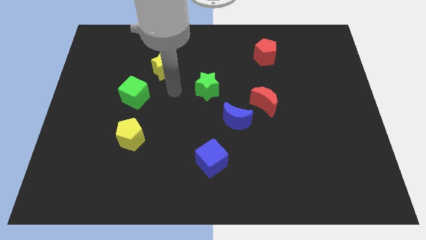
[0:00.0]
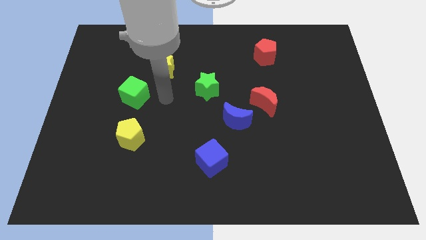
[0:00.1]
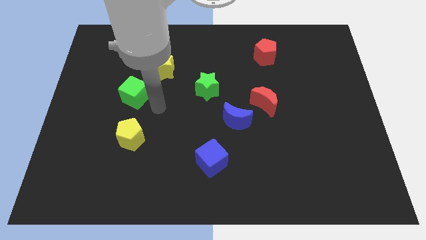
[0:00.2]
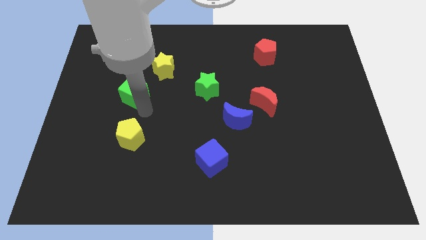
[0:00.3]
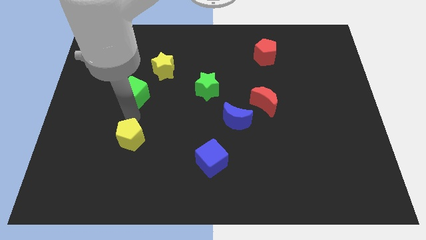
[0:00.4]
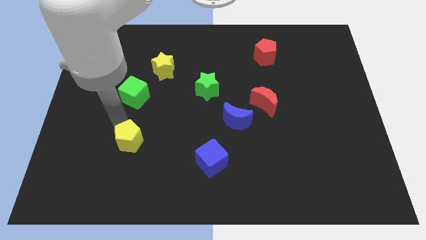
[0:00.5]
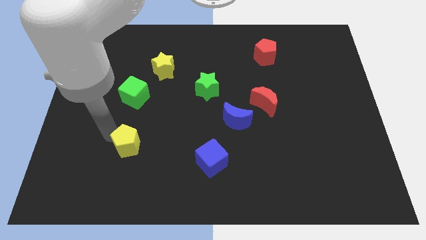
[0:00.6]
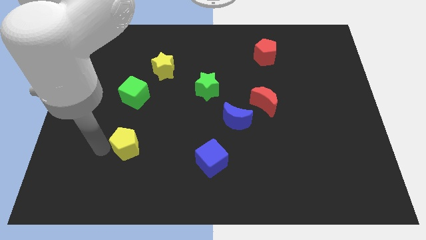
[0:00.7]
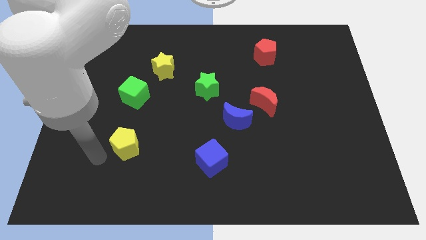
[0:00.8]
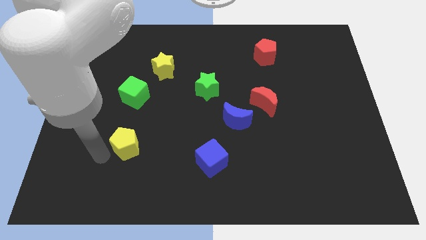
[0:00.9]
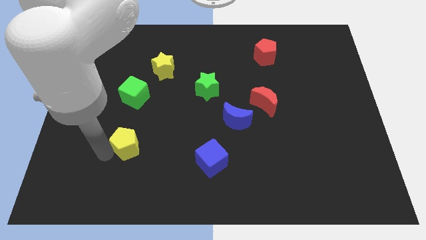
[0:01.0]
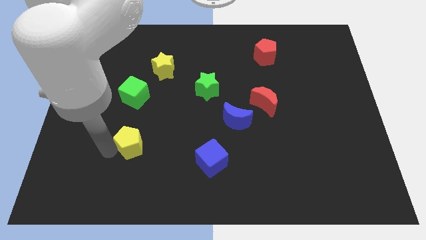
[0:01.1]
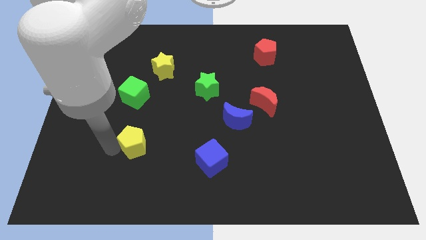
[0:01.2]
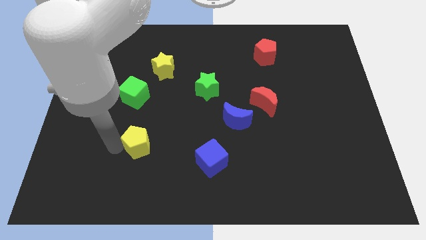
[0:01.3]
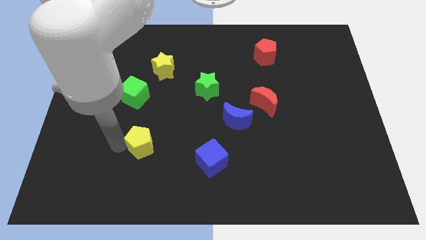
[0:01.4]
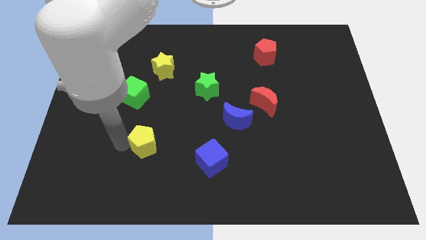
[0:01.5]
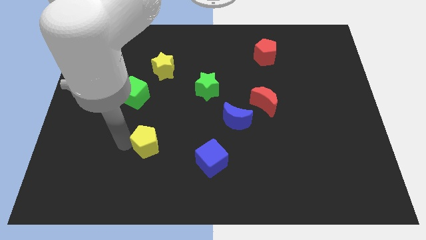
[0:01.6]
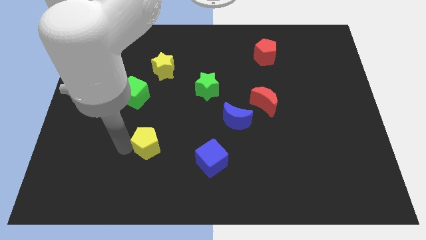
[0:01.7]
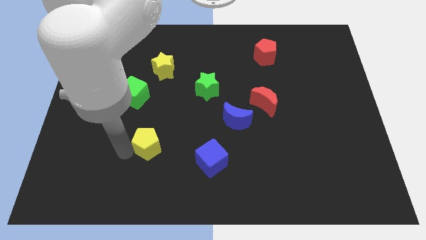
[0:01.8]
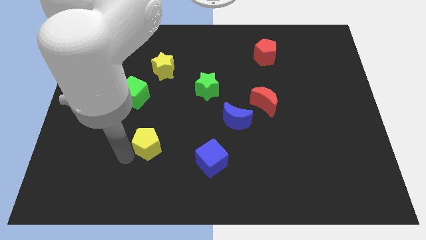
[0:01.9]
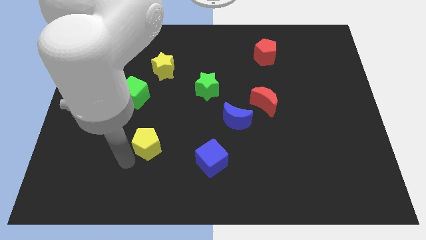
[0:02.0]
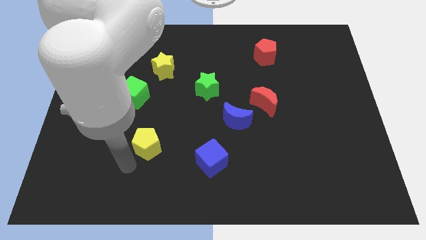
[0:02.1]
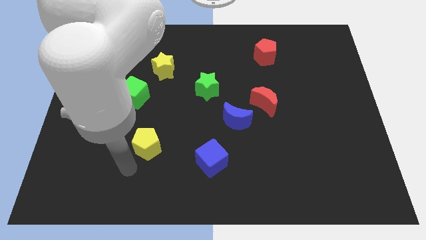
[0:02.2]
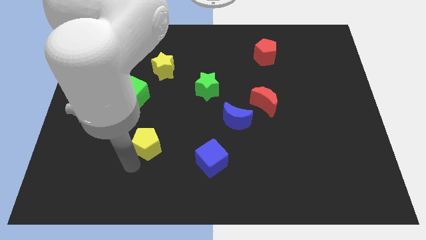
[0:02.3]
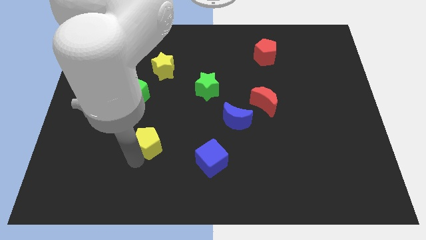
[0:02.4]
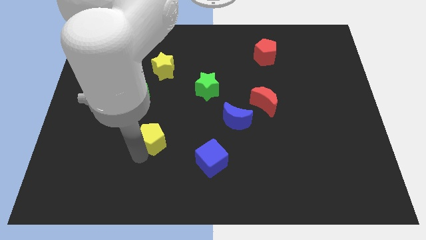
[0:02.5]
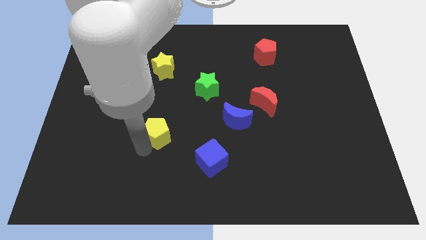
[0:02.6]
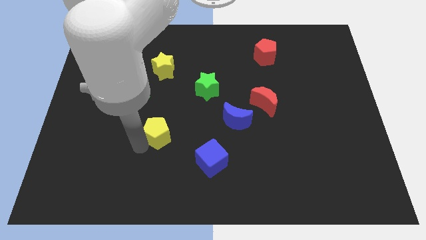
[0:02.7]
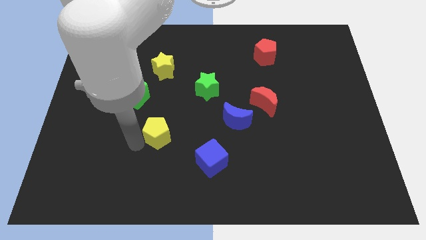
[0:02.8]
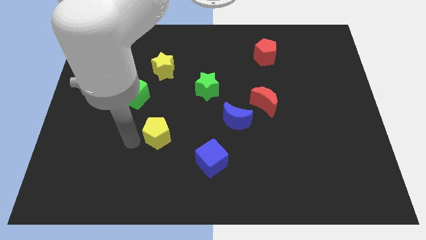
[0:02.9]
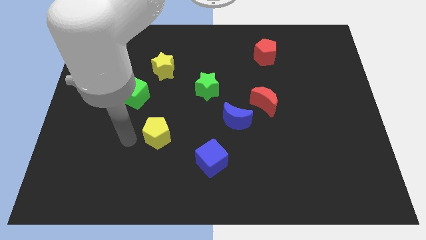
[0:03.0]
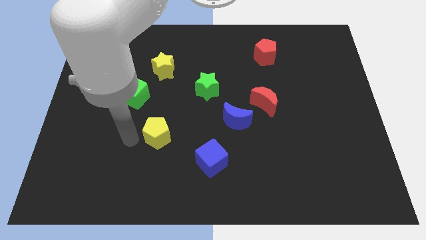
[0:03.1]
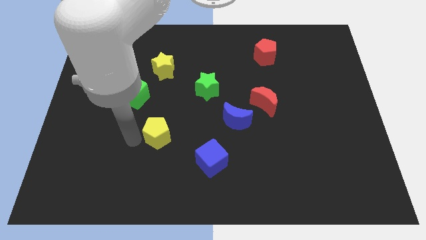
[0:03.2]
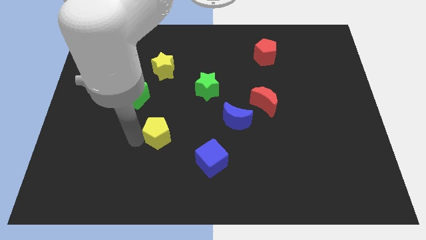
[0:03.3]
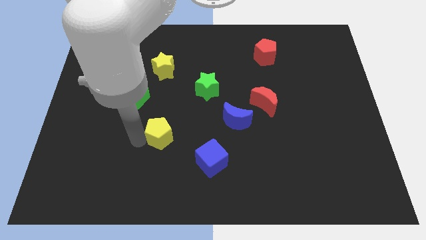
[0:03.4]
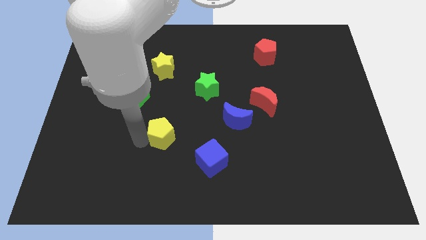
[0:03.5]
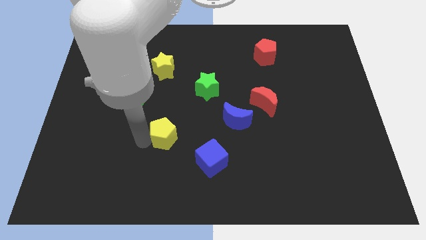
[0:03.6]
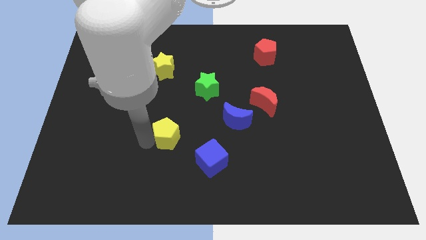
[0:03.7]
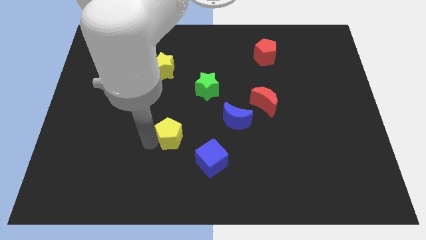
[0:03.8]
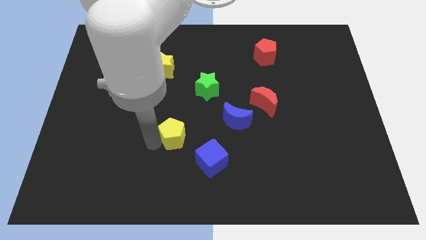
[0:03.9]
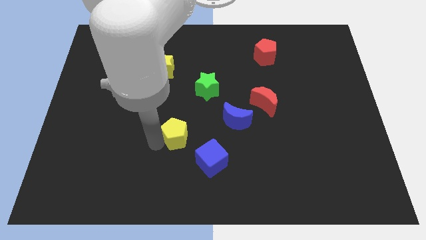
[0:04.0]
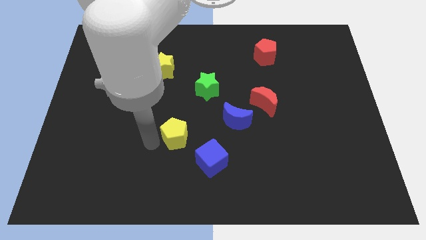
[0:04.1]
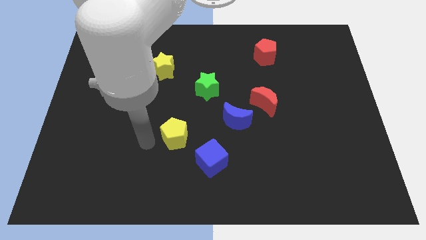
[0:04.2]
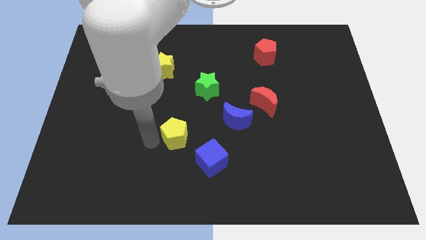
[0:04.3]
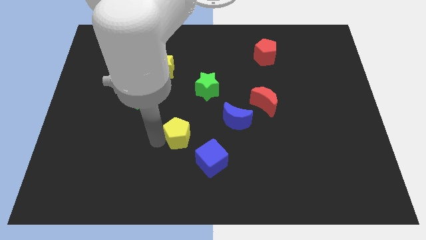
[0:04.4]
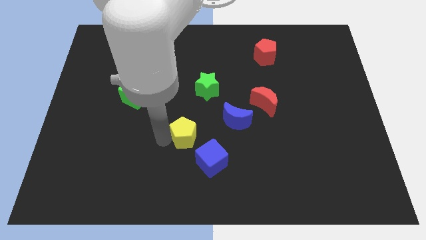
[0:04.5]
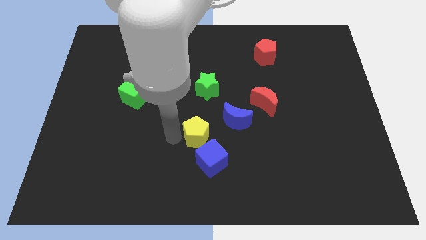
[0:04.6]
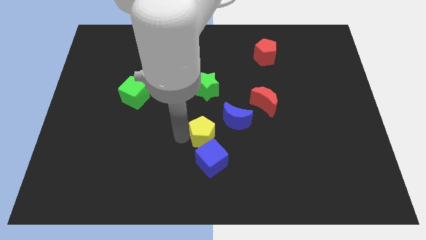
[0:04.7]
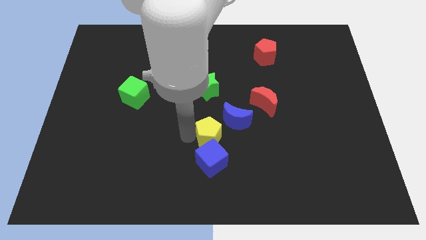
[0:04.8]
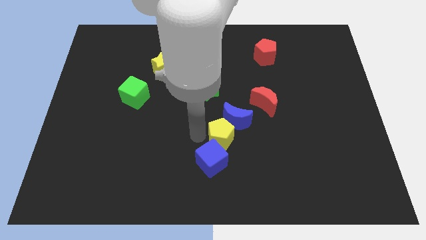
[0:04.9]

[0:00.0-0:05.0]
push the yellow pentagon right

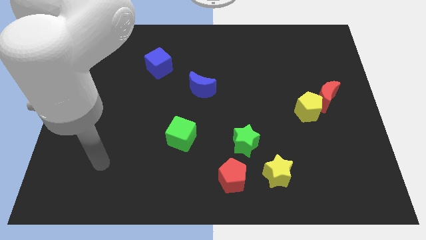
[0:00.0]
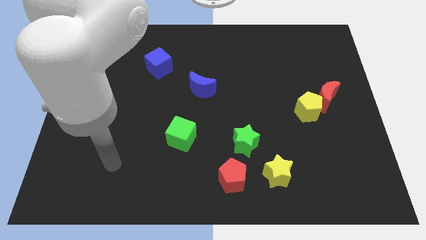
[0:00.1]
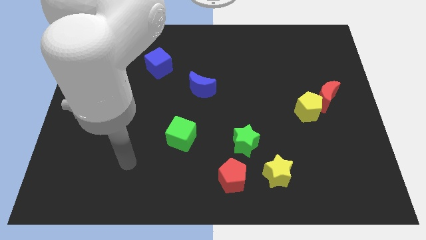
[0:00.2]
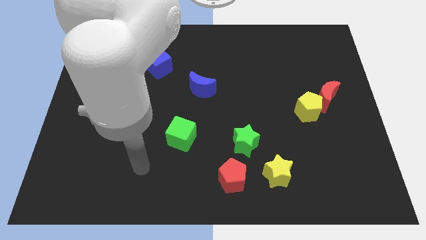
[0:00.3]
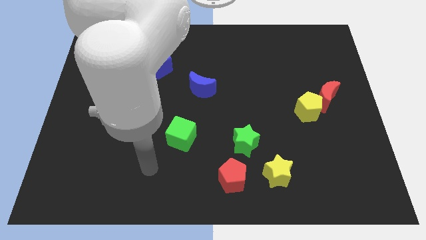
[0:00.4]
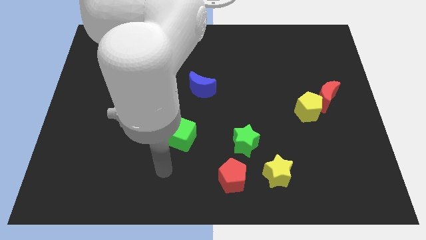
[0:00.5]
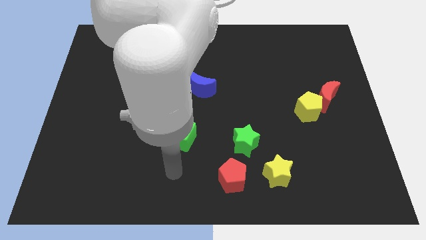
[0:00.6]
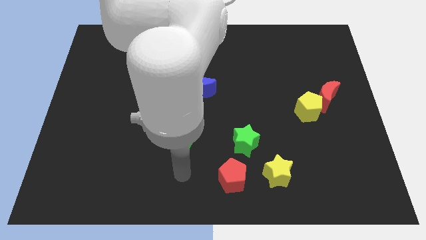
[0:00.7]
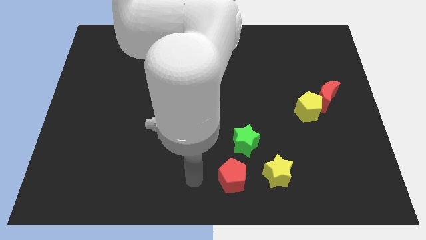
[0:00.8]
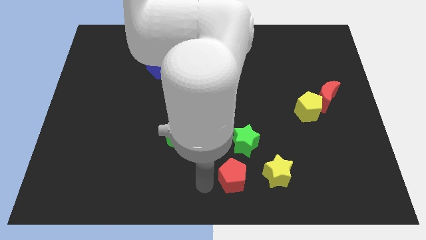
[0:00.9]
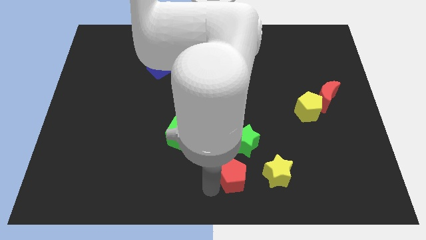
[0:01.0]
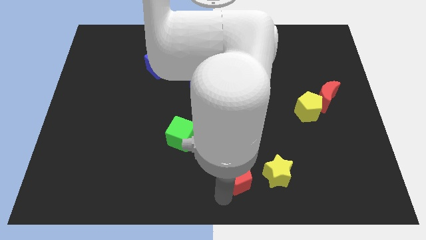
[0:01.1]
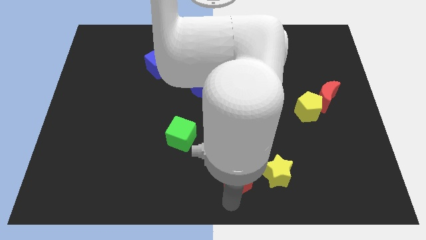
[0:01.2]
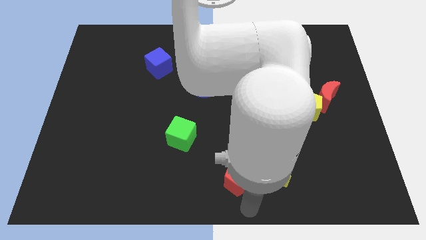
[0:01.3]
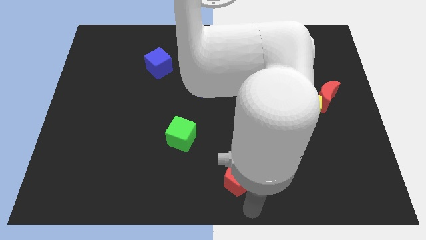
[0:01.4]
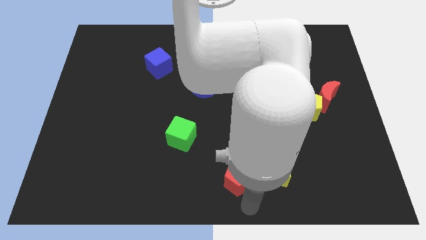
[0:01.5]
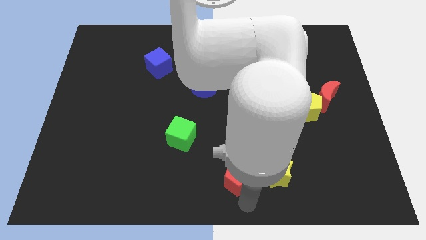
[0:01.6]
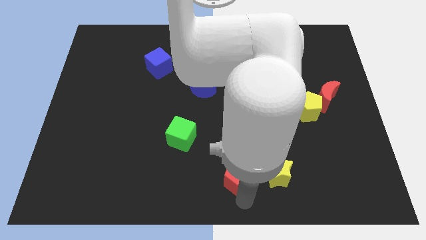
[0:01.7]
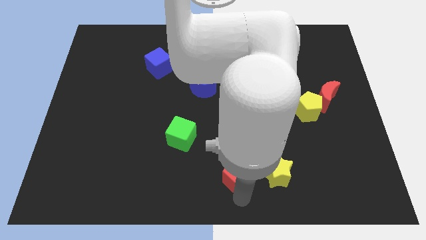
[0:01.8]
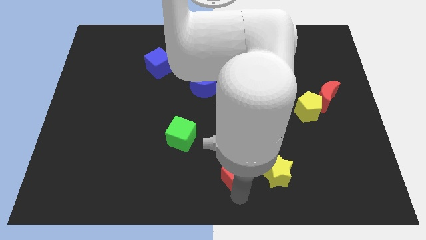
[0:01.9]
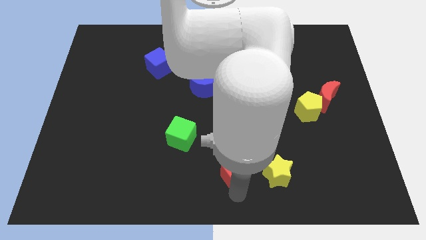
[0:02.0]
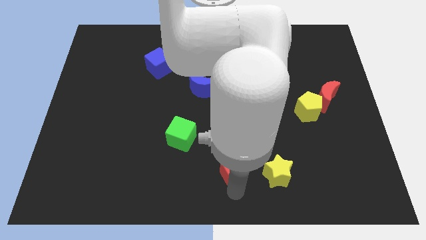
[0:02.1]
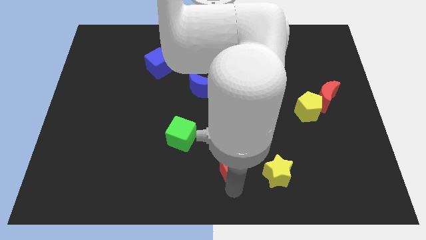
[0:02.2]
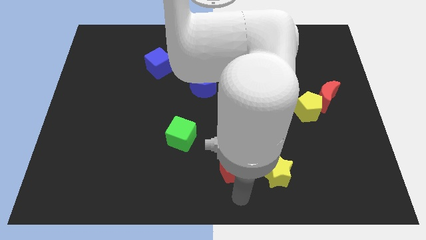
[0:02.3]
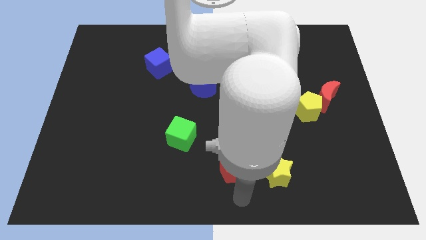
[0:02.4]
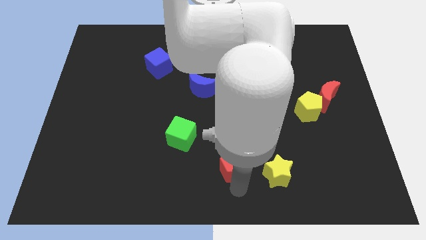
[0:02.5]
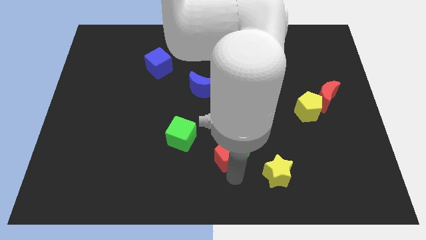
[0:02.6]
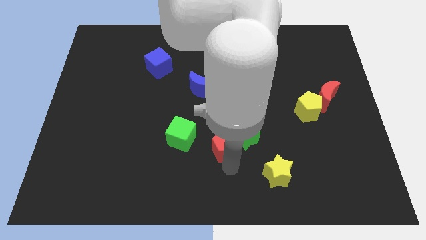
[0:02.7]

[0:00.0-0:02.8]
push the red pentagon a bit upwards

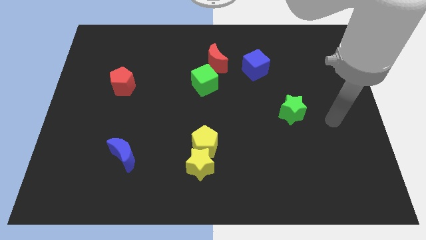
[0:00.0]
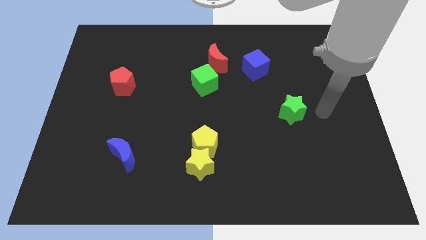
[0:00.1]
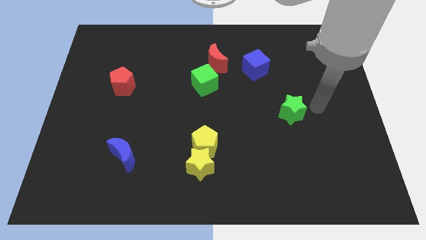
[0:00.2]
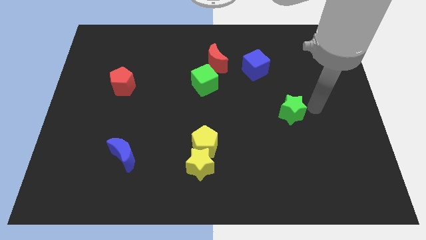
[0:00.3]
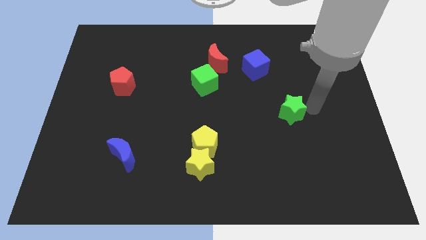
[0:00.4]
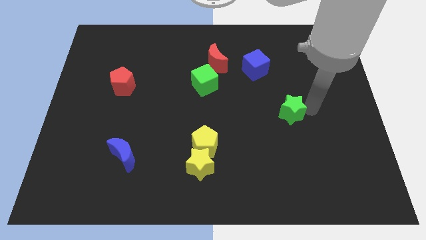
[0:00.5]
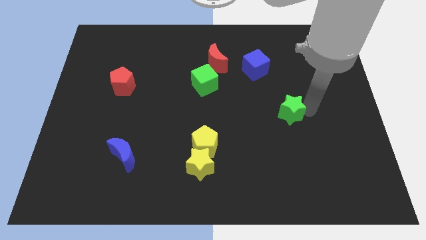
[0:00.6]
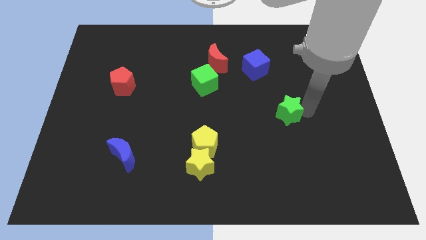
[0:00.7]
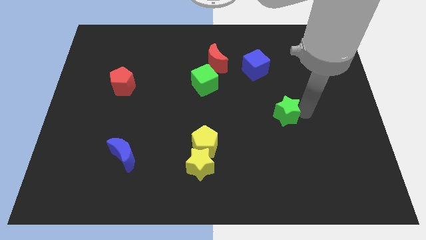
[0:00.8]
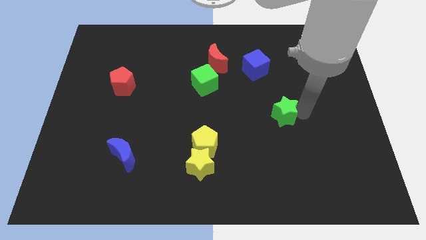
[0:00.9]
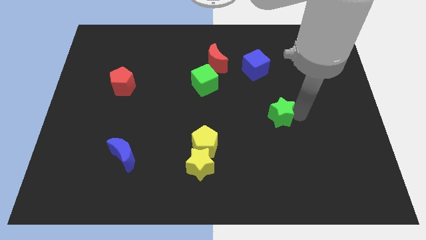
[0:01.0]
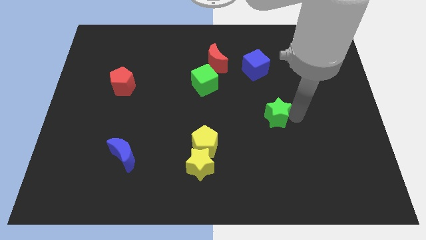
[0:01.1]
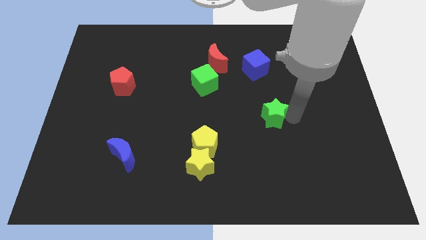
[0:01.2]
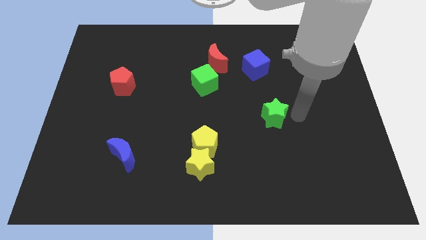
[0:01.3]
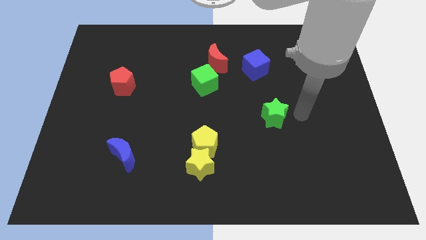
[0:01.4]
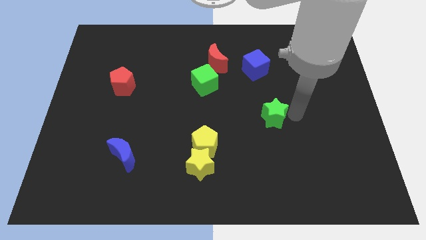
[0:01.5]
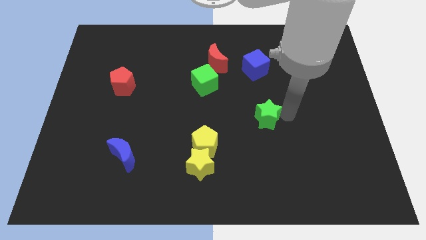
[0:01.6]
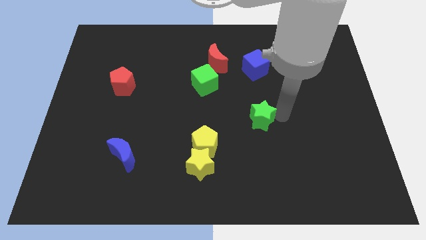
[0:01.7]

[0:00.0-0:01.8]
slightly move the green star to the left
